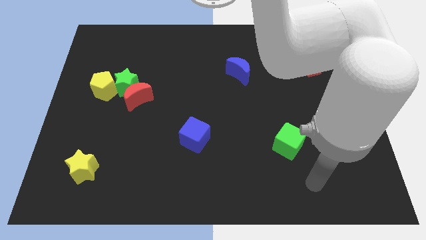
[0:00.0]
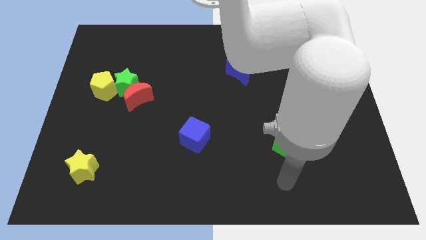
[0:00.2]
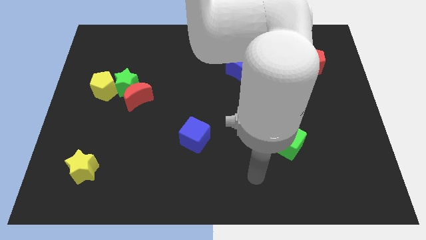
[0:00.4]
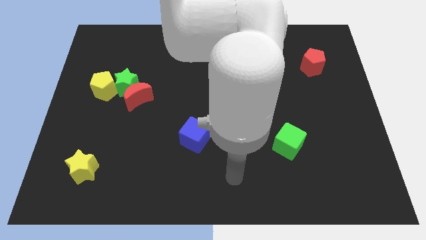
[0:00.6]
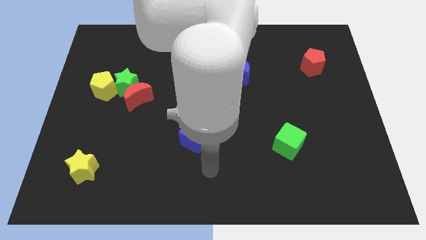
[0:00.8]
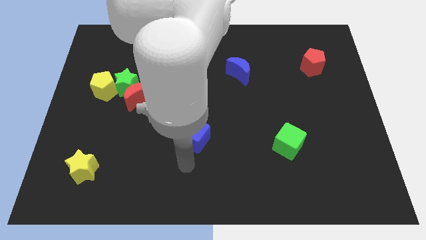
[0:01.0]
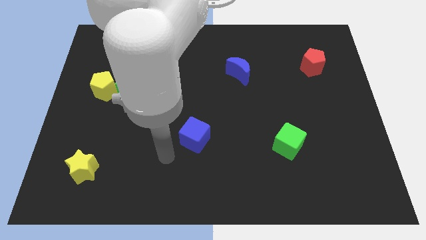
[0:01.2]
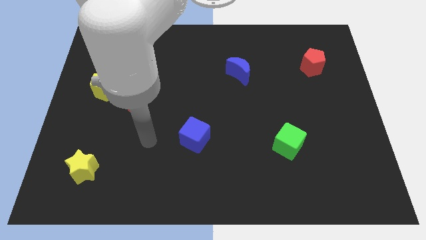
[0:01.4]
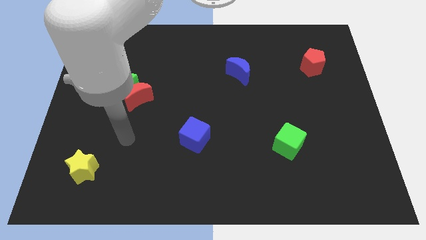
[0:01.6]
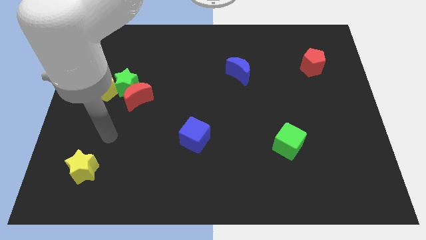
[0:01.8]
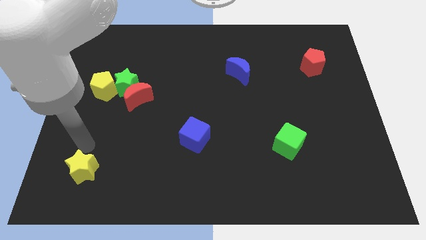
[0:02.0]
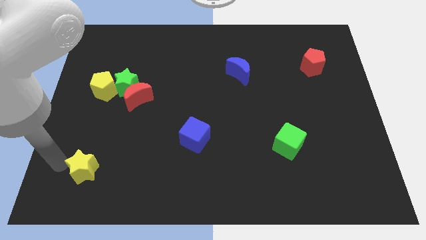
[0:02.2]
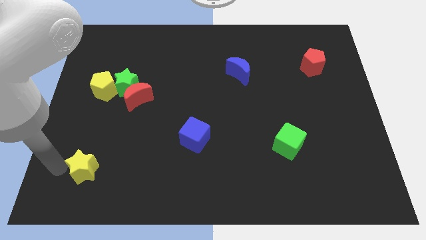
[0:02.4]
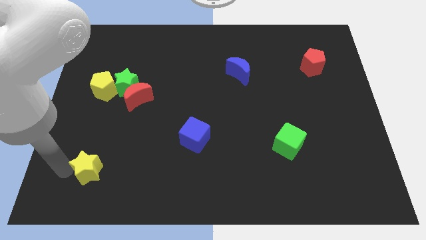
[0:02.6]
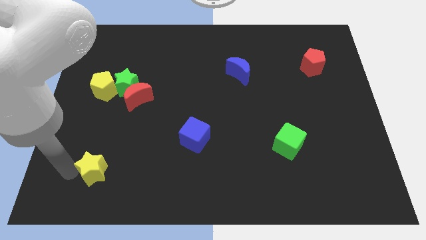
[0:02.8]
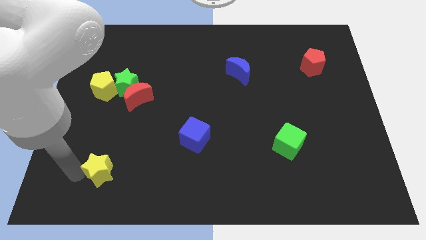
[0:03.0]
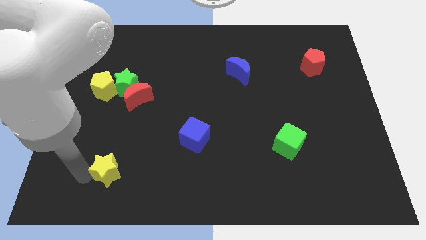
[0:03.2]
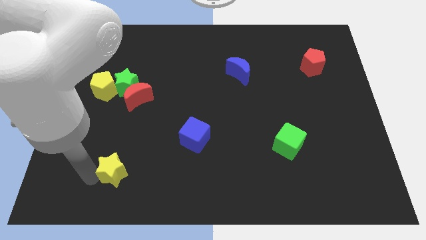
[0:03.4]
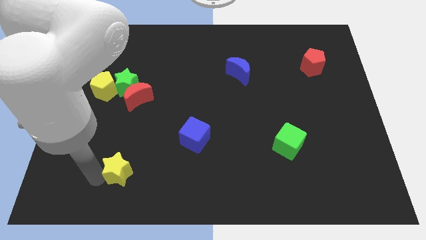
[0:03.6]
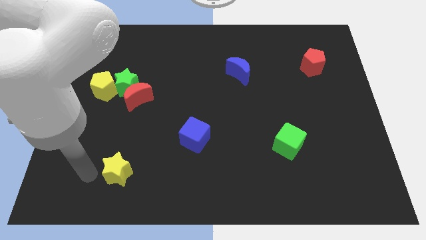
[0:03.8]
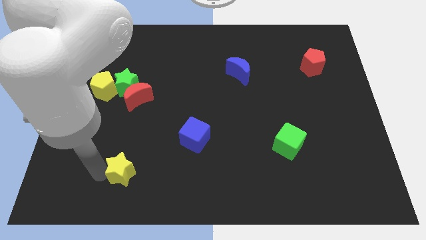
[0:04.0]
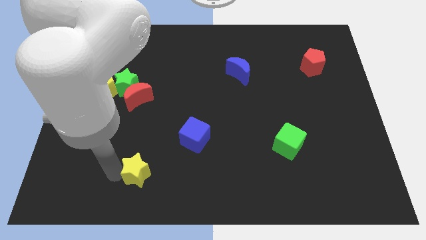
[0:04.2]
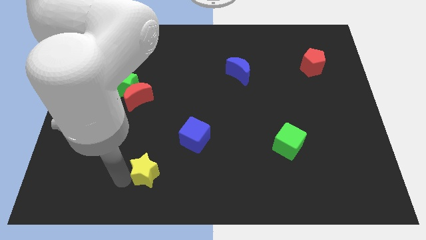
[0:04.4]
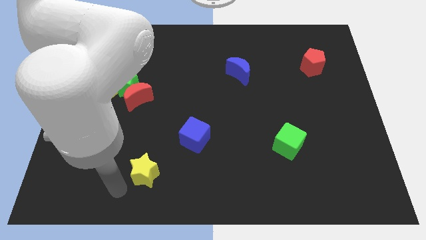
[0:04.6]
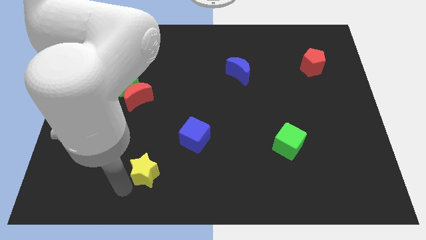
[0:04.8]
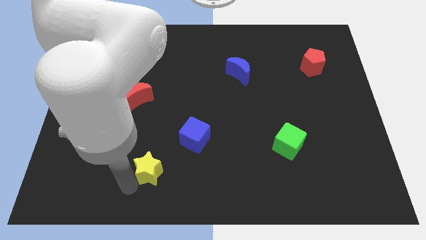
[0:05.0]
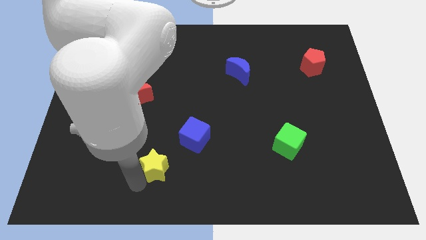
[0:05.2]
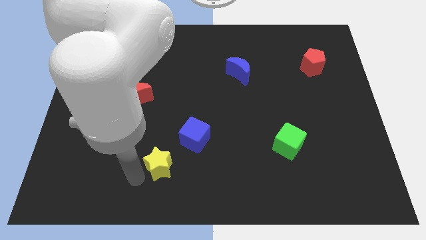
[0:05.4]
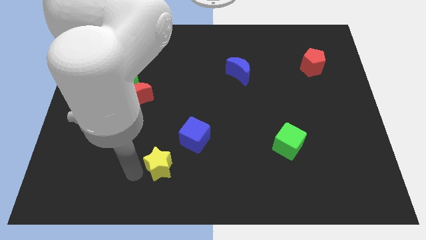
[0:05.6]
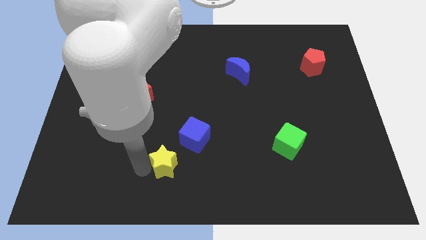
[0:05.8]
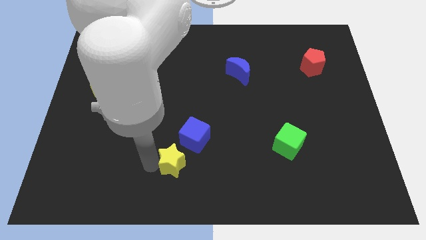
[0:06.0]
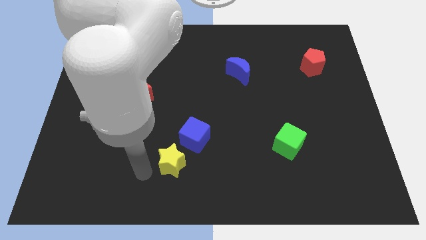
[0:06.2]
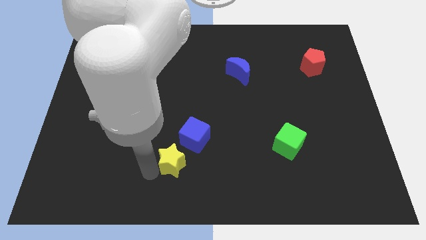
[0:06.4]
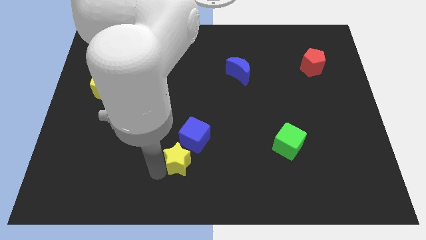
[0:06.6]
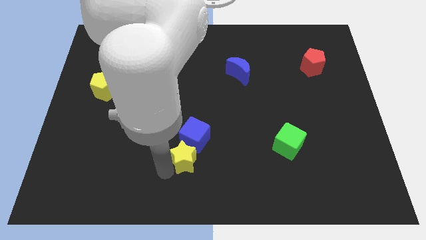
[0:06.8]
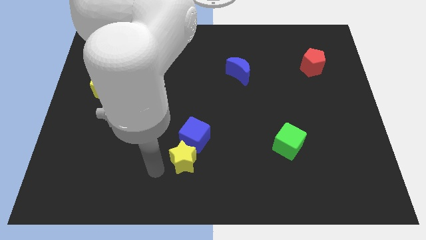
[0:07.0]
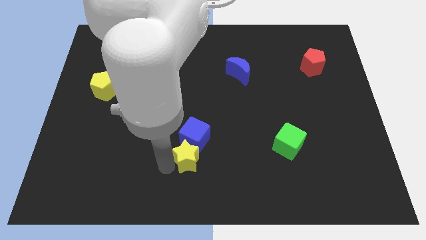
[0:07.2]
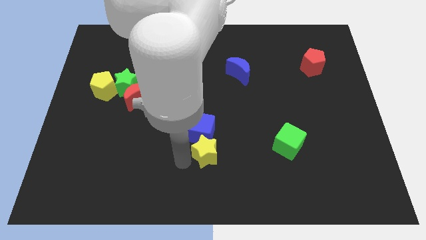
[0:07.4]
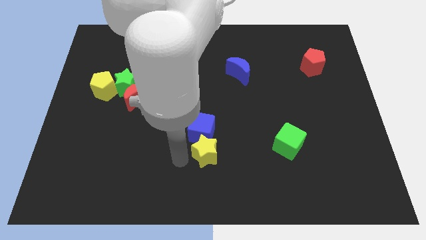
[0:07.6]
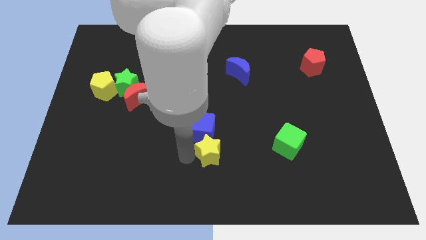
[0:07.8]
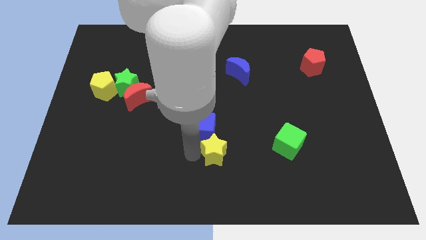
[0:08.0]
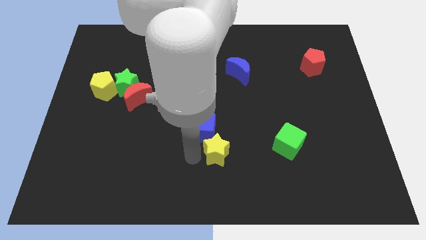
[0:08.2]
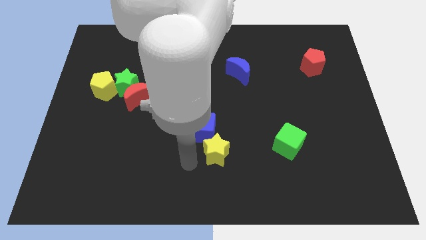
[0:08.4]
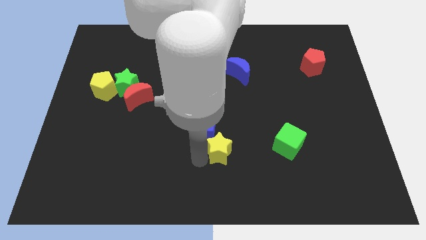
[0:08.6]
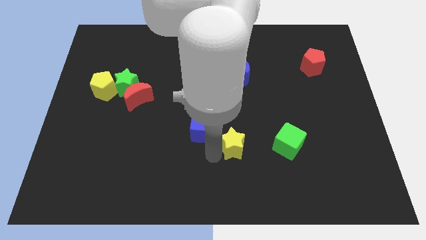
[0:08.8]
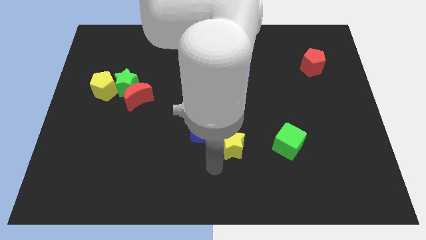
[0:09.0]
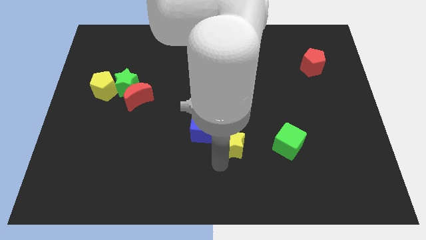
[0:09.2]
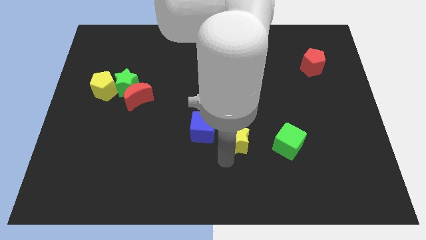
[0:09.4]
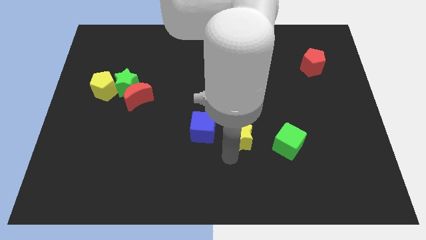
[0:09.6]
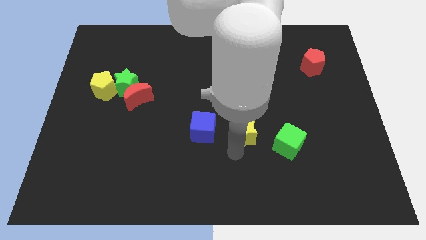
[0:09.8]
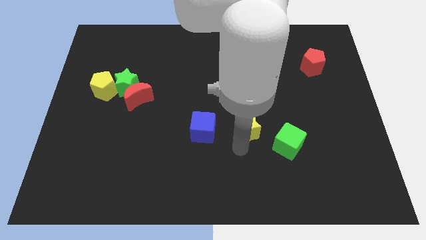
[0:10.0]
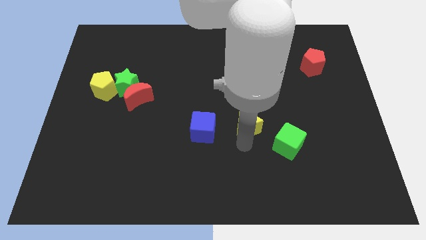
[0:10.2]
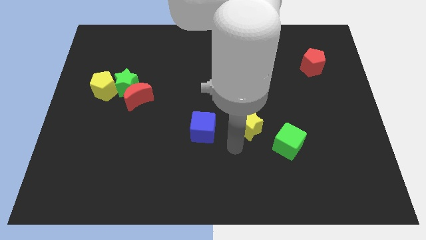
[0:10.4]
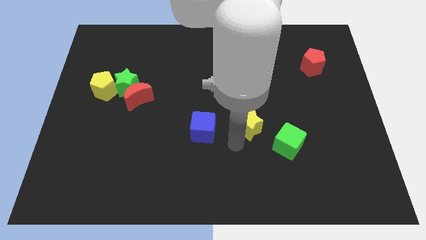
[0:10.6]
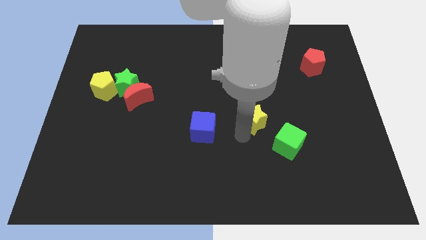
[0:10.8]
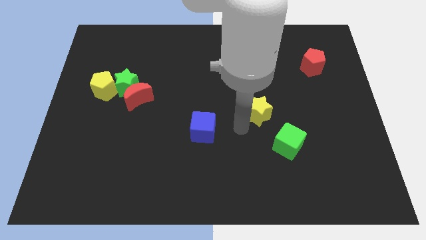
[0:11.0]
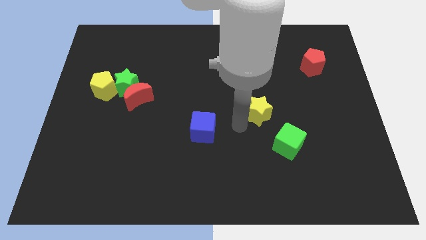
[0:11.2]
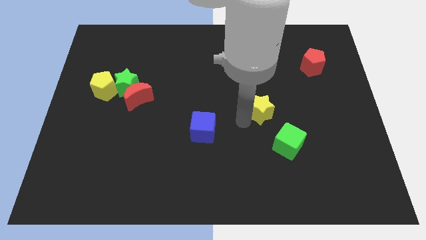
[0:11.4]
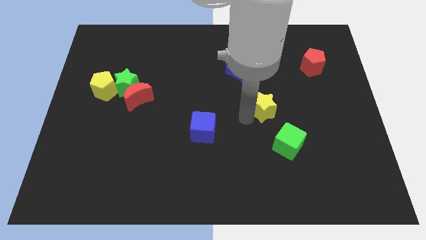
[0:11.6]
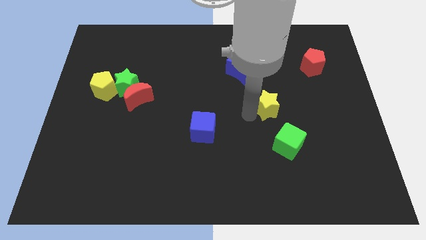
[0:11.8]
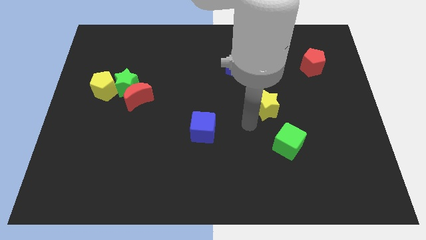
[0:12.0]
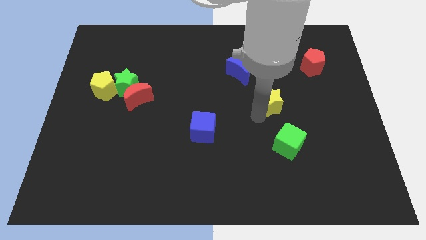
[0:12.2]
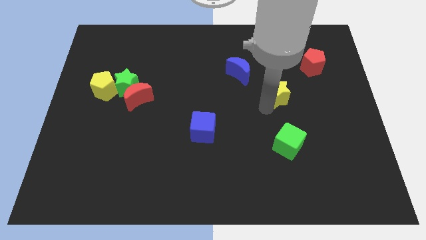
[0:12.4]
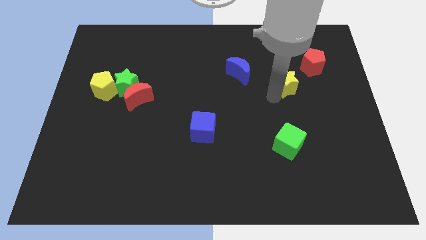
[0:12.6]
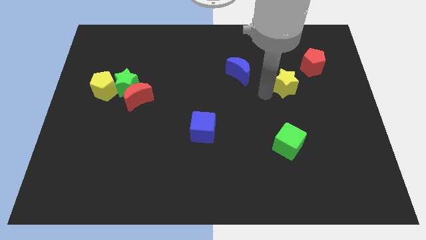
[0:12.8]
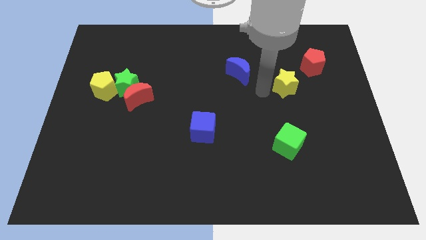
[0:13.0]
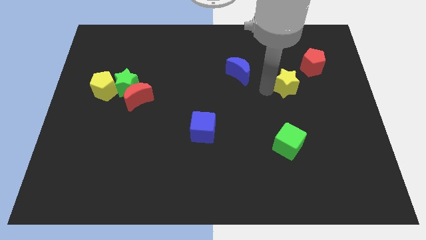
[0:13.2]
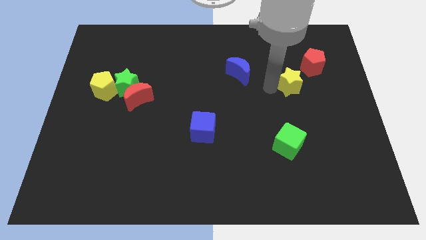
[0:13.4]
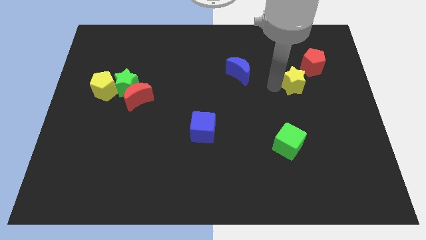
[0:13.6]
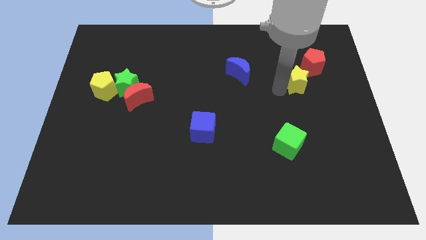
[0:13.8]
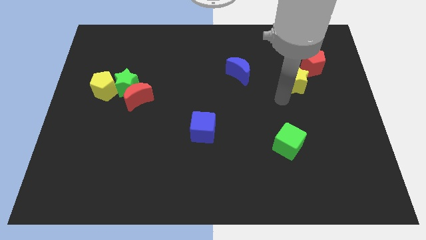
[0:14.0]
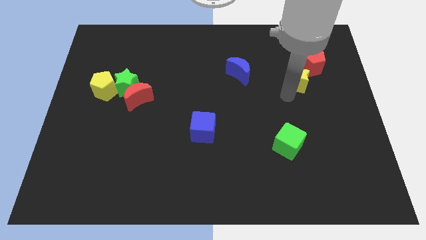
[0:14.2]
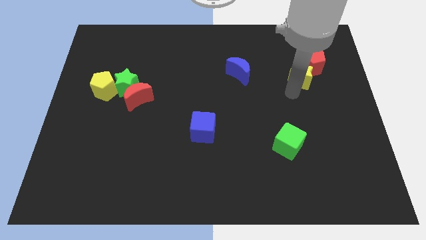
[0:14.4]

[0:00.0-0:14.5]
put the yellow star towards the red pentagon
